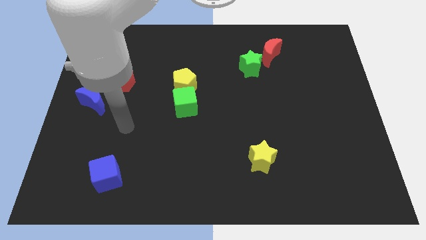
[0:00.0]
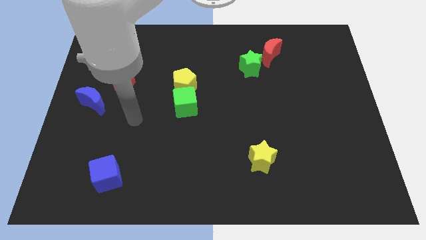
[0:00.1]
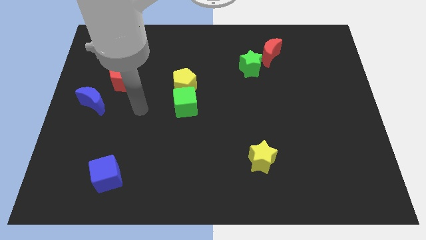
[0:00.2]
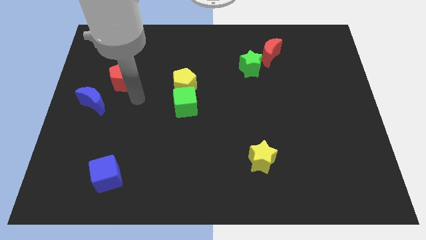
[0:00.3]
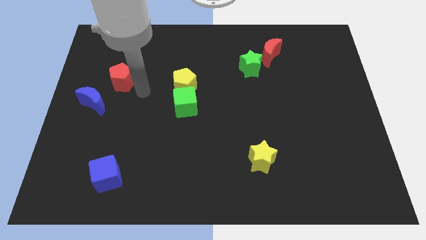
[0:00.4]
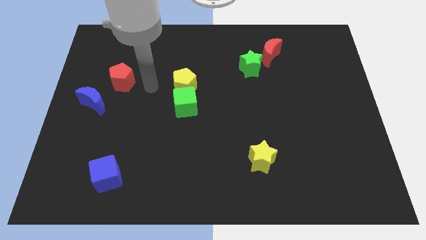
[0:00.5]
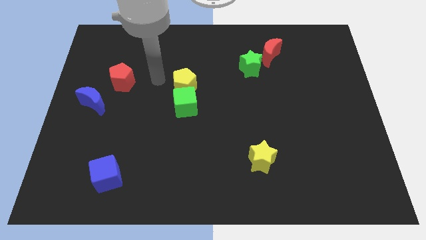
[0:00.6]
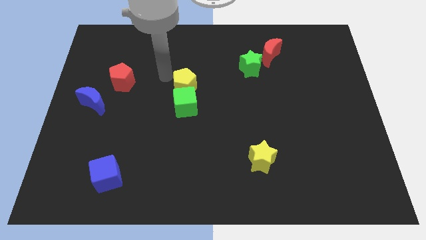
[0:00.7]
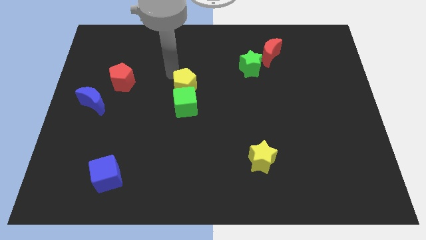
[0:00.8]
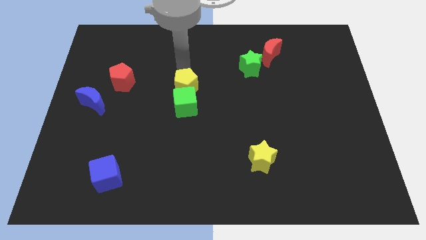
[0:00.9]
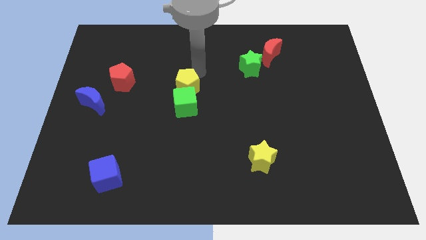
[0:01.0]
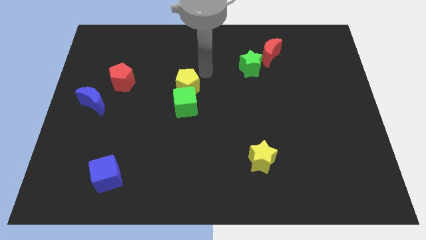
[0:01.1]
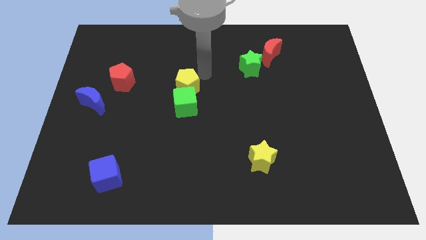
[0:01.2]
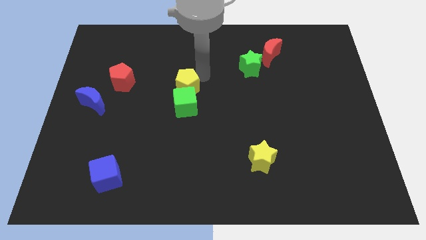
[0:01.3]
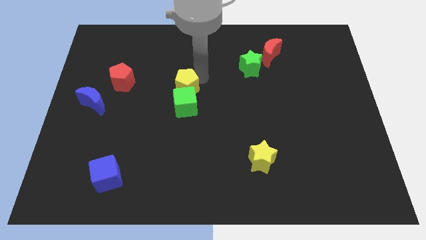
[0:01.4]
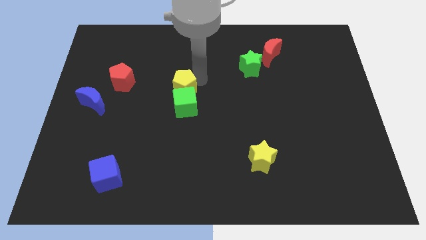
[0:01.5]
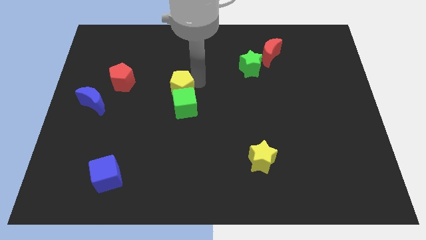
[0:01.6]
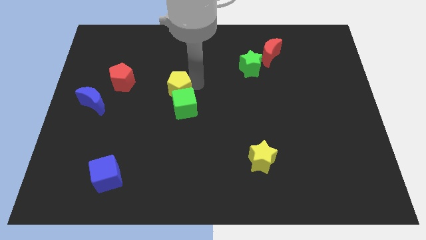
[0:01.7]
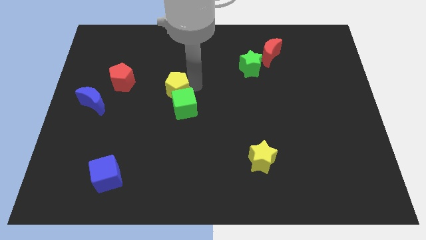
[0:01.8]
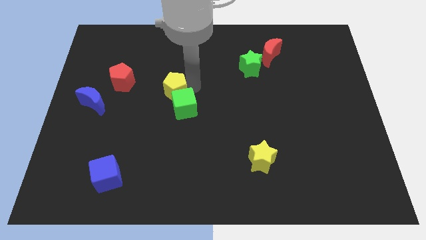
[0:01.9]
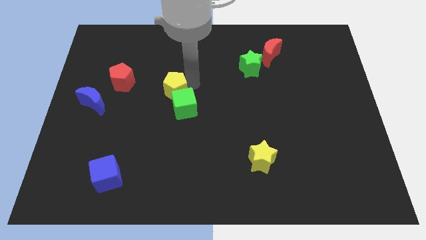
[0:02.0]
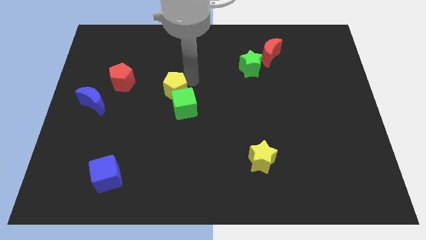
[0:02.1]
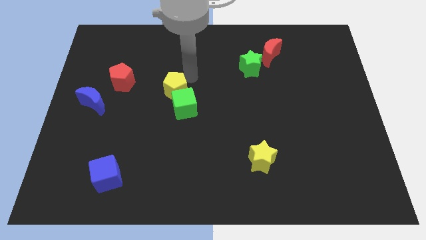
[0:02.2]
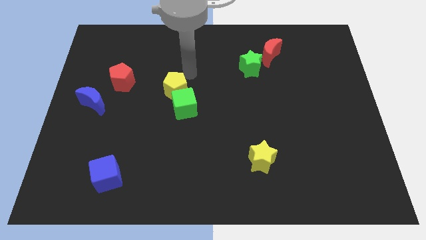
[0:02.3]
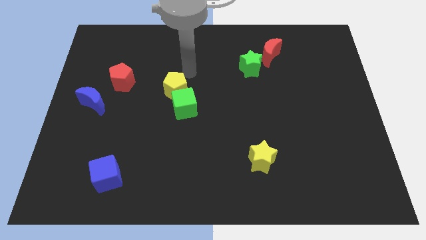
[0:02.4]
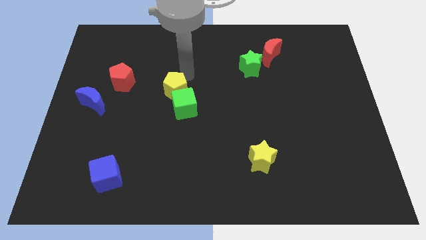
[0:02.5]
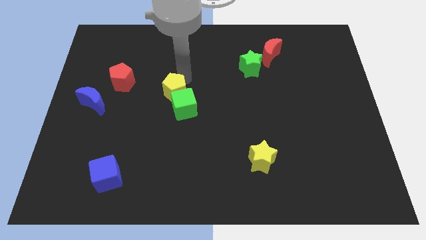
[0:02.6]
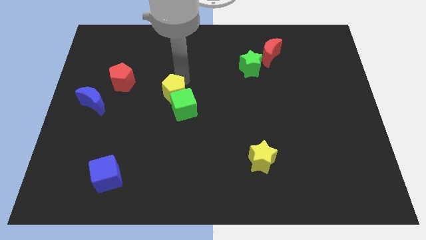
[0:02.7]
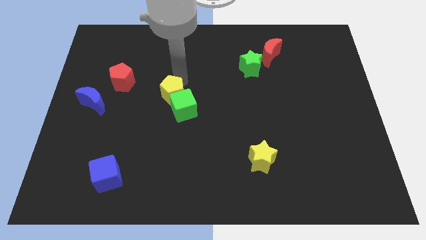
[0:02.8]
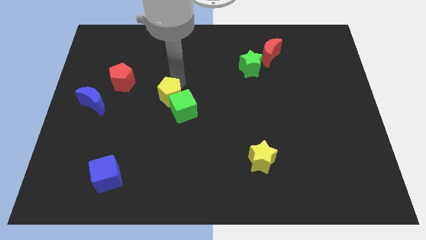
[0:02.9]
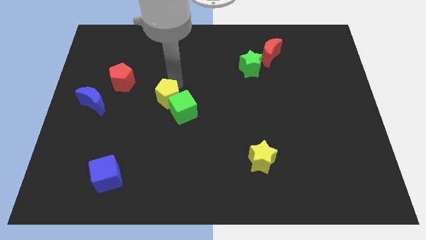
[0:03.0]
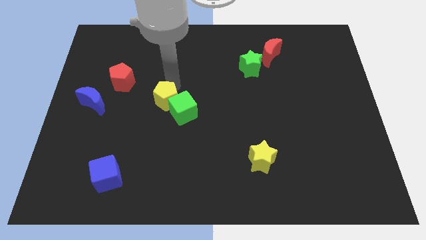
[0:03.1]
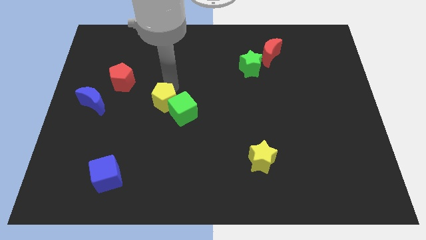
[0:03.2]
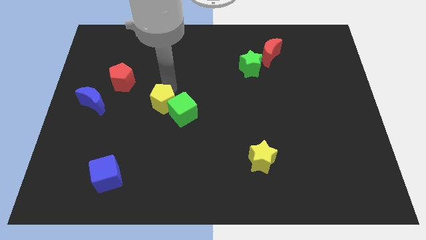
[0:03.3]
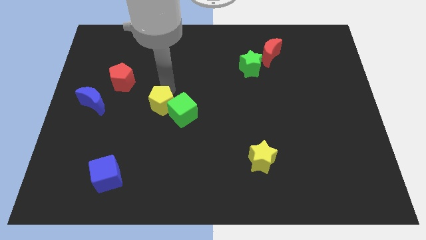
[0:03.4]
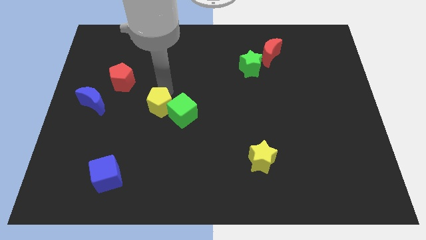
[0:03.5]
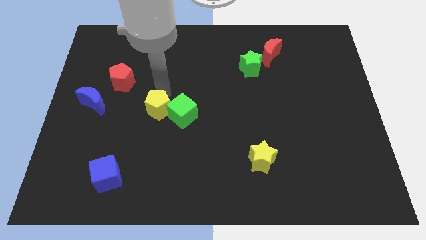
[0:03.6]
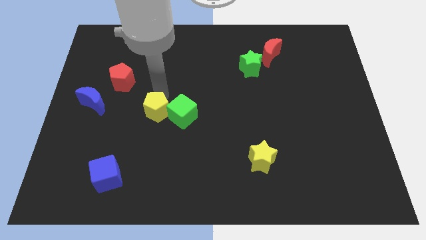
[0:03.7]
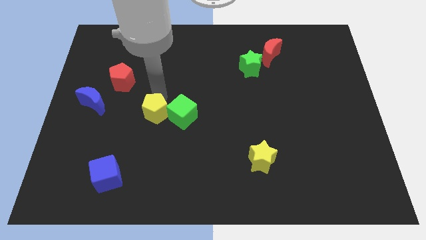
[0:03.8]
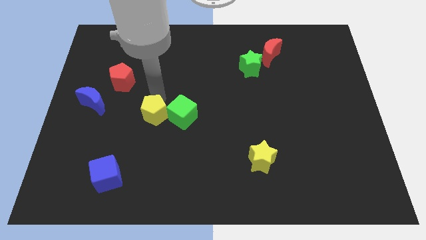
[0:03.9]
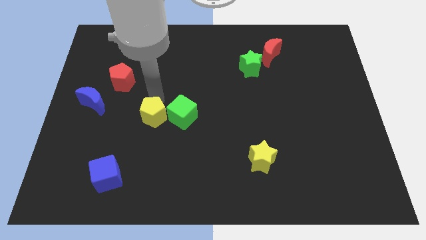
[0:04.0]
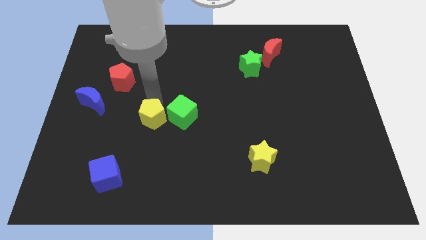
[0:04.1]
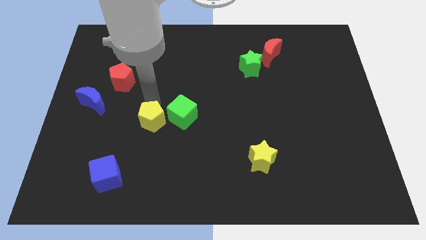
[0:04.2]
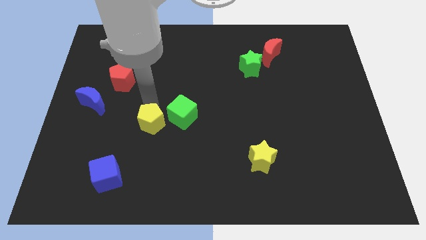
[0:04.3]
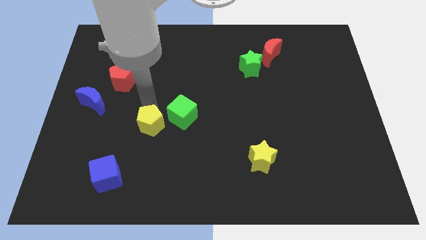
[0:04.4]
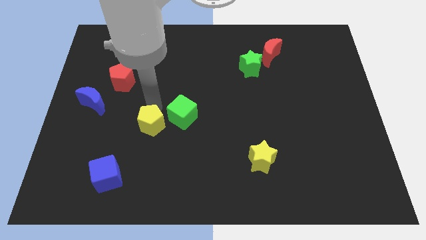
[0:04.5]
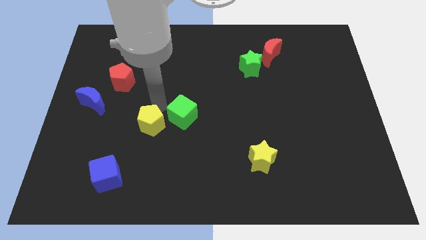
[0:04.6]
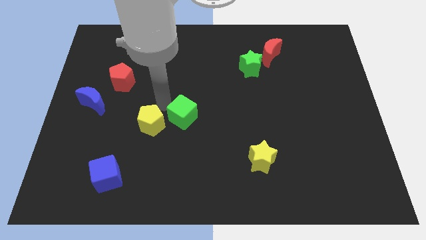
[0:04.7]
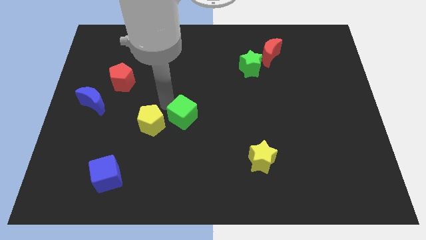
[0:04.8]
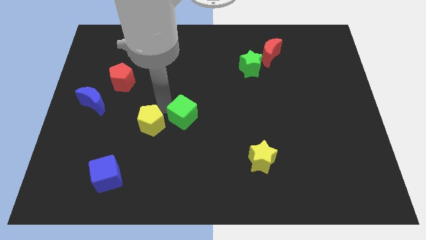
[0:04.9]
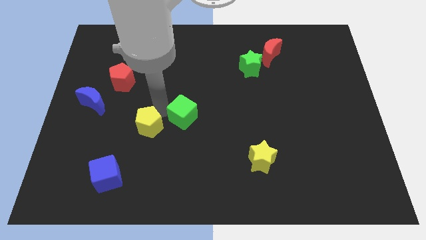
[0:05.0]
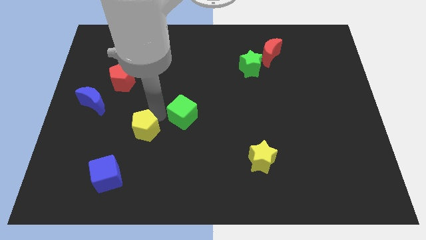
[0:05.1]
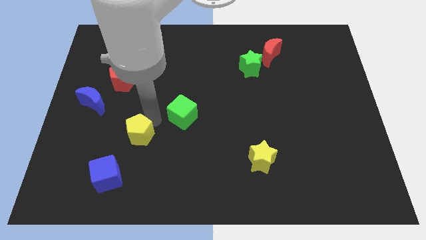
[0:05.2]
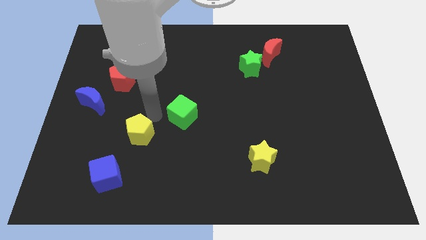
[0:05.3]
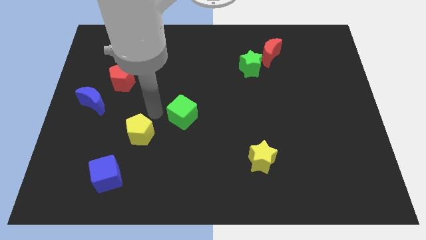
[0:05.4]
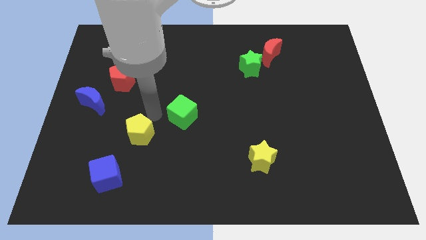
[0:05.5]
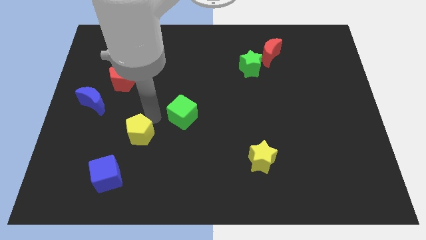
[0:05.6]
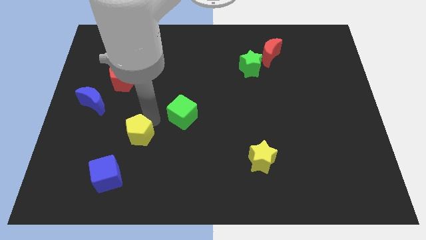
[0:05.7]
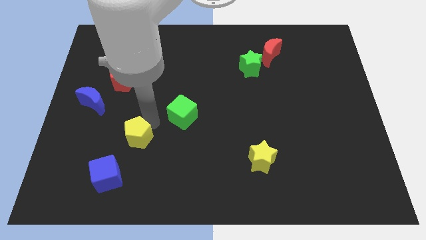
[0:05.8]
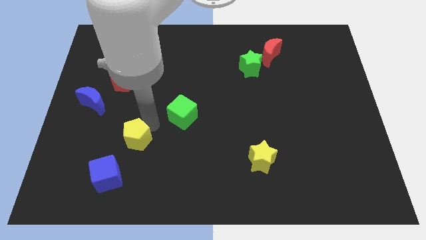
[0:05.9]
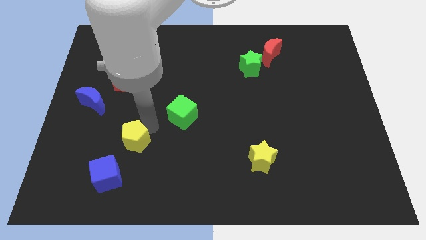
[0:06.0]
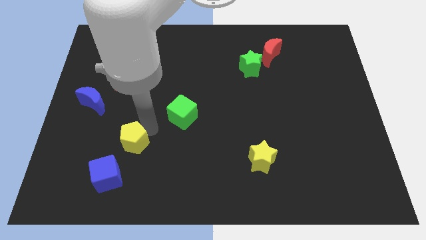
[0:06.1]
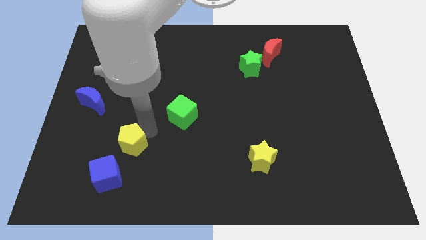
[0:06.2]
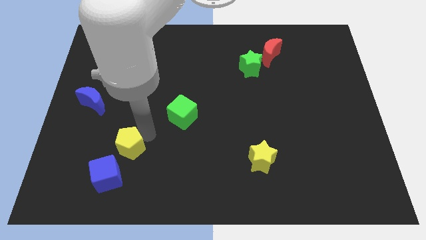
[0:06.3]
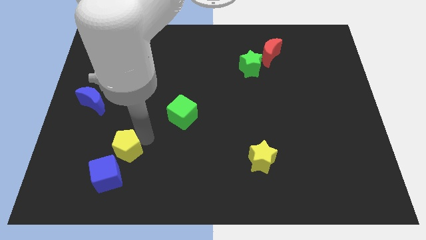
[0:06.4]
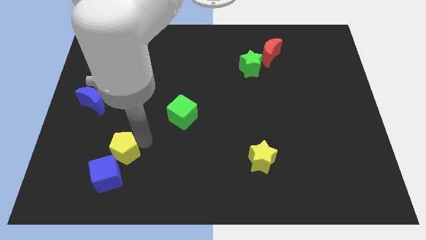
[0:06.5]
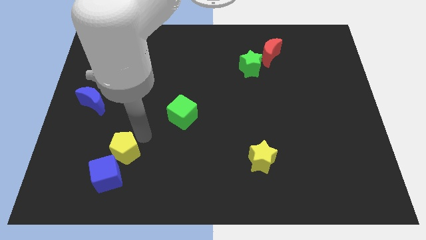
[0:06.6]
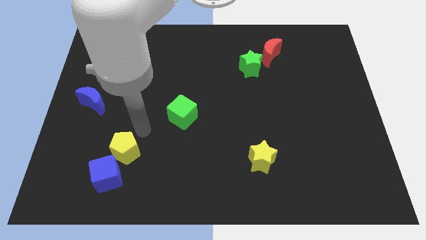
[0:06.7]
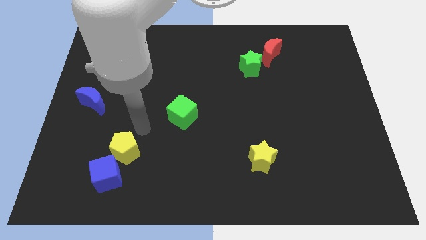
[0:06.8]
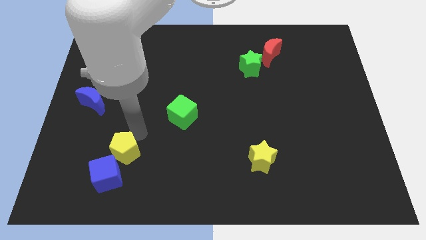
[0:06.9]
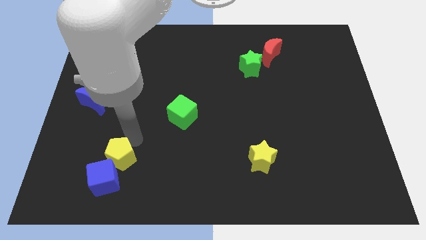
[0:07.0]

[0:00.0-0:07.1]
slide the yellow pentagon to the blue cube
